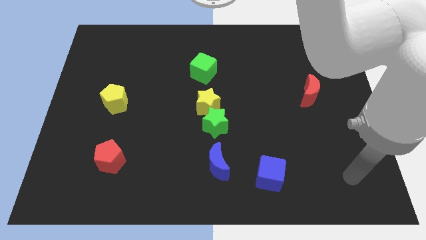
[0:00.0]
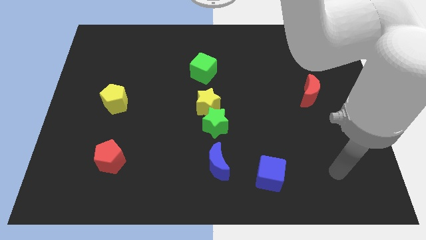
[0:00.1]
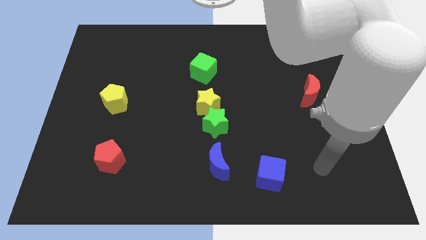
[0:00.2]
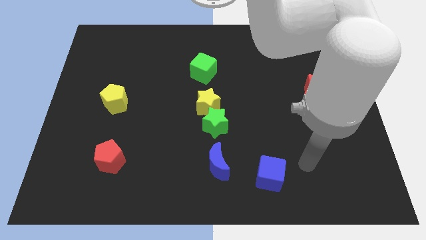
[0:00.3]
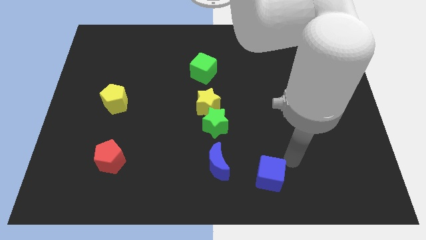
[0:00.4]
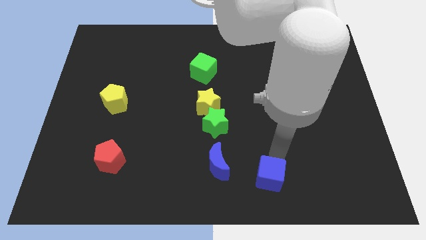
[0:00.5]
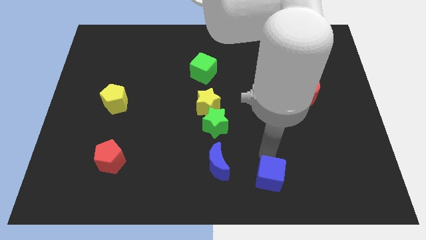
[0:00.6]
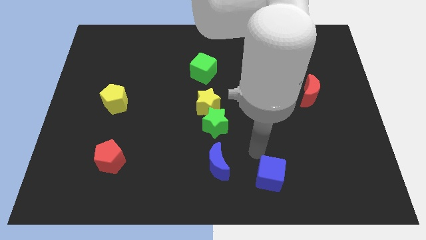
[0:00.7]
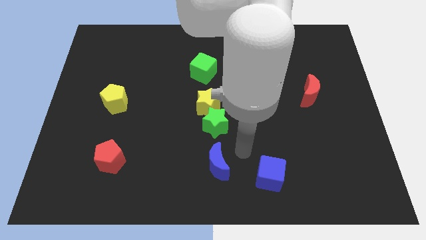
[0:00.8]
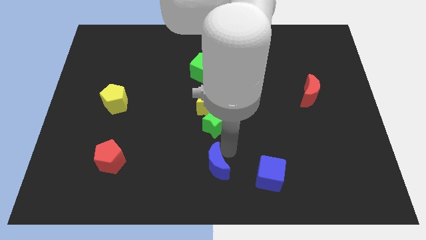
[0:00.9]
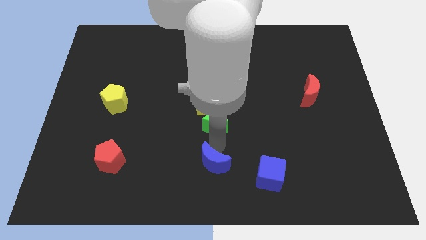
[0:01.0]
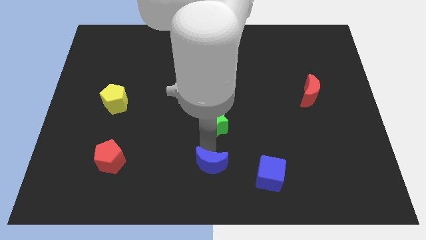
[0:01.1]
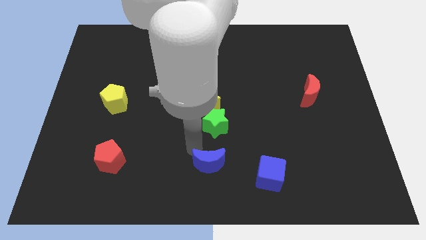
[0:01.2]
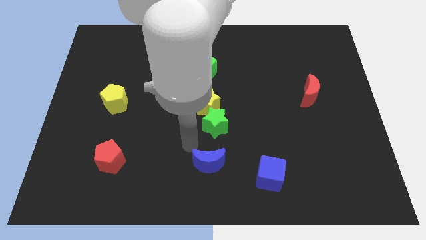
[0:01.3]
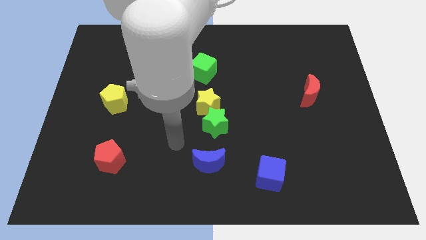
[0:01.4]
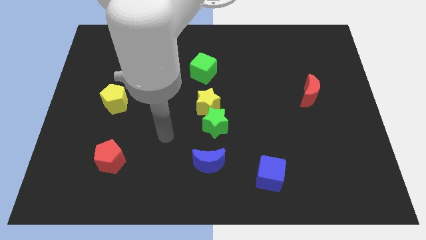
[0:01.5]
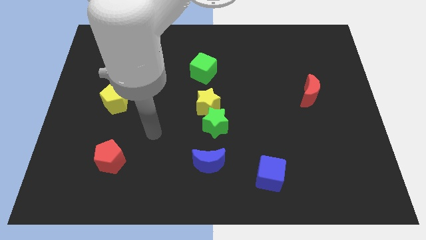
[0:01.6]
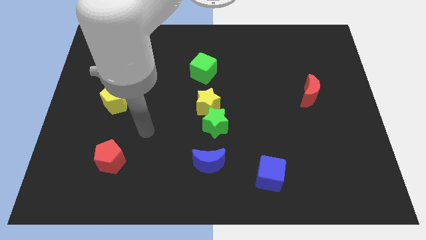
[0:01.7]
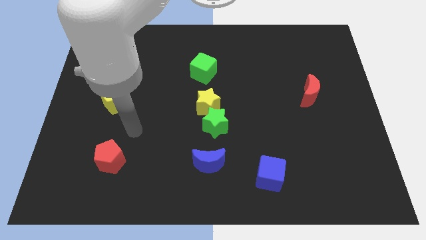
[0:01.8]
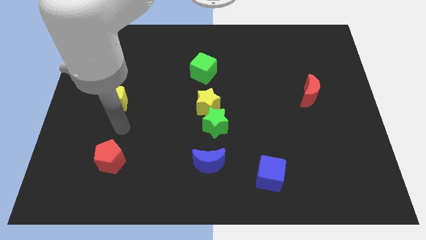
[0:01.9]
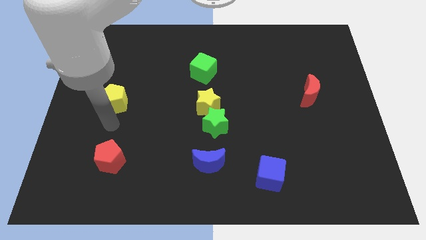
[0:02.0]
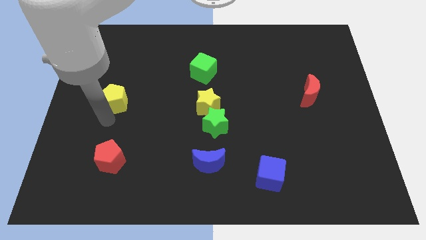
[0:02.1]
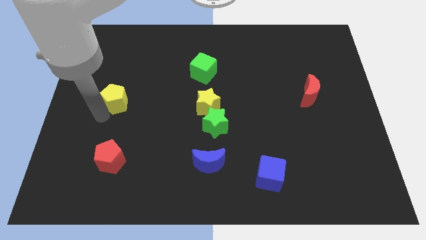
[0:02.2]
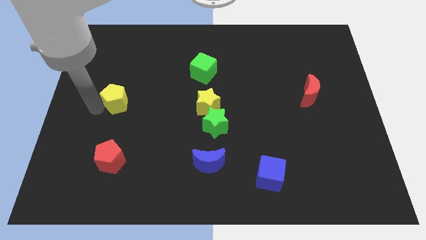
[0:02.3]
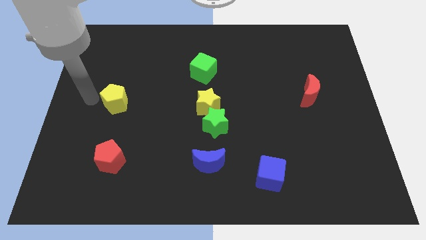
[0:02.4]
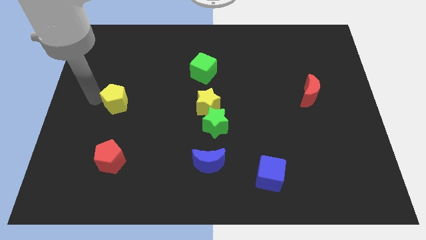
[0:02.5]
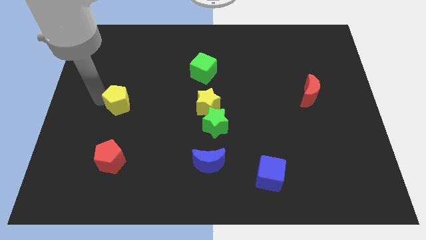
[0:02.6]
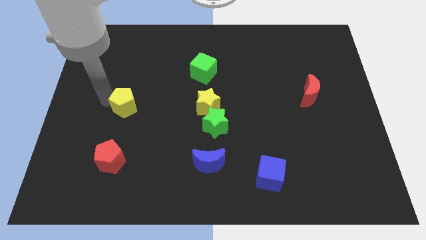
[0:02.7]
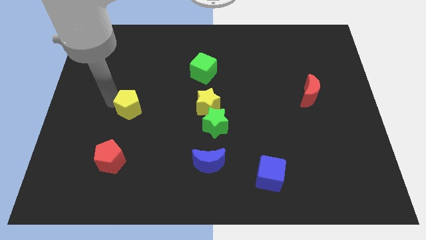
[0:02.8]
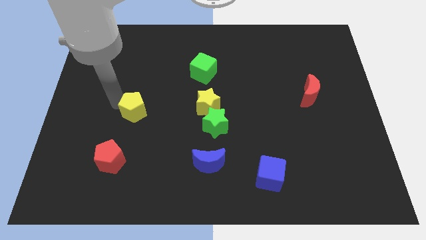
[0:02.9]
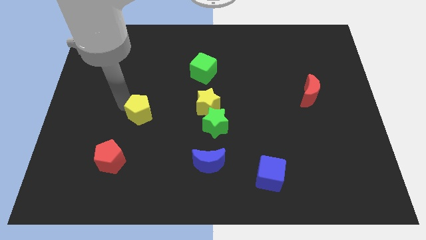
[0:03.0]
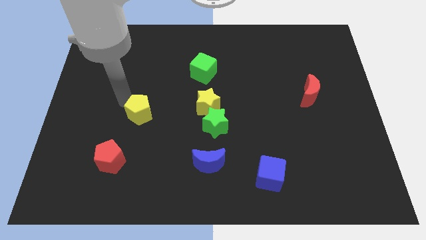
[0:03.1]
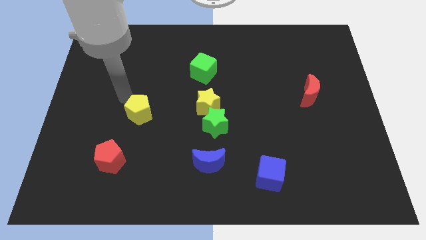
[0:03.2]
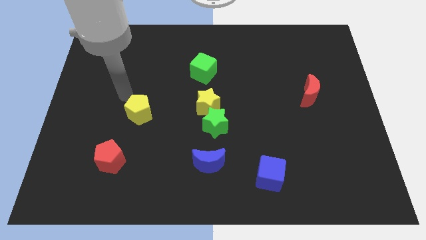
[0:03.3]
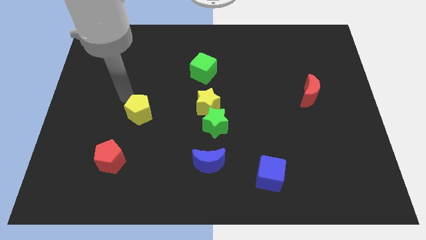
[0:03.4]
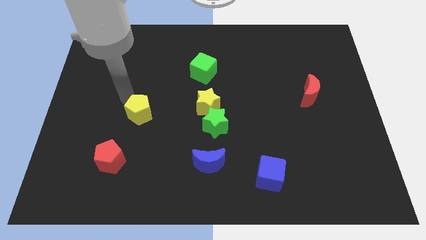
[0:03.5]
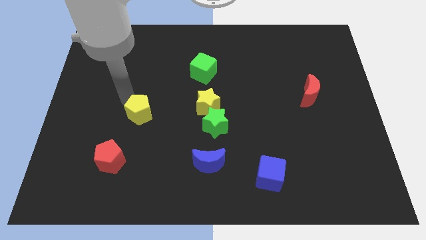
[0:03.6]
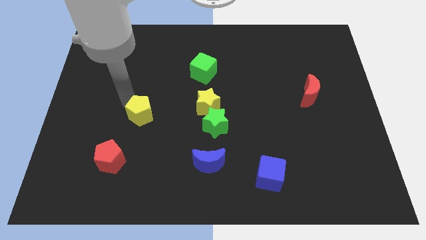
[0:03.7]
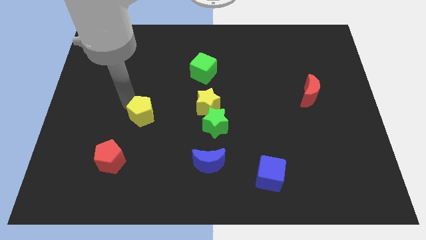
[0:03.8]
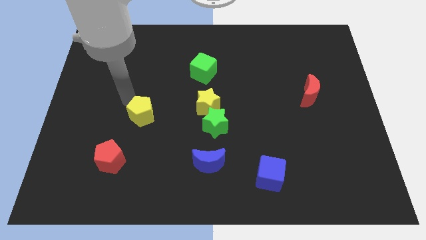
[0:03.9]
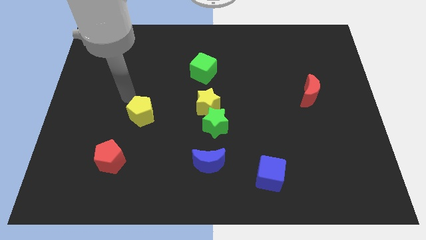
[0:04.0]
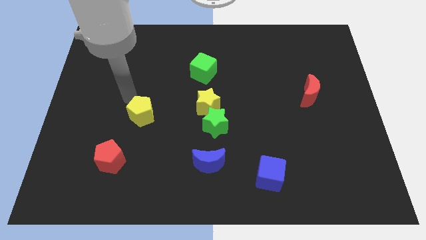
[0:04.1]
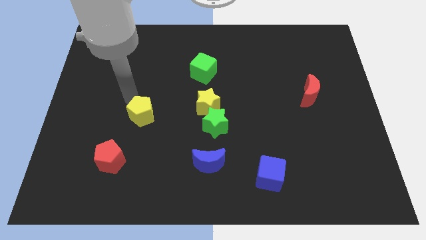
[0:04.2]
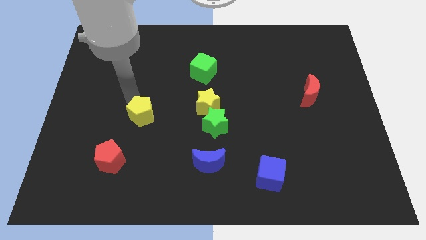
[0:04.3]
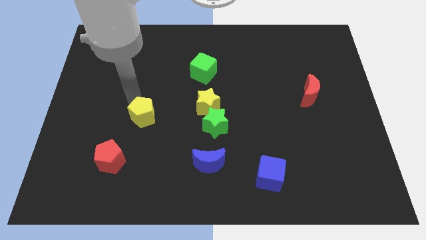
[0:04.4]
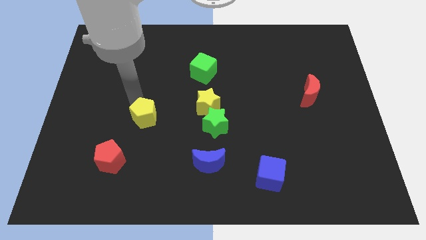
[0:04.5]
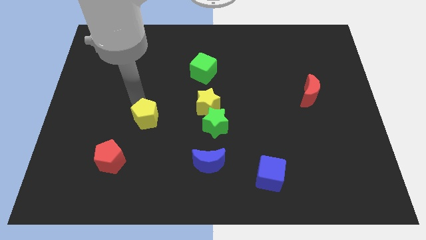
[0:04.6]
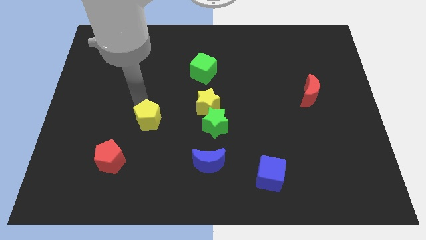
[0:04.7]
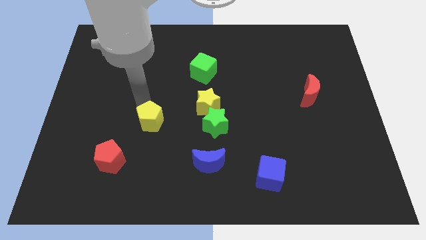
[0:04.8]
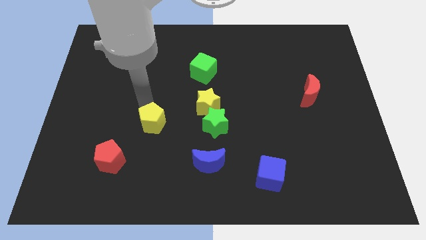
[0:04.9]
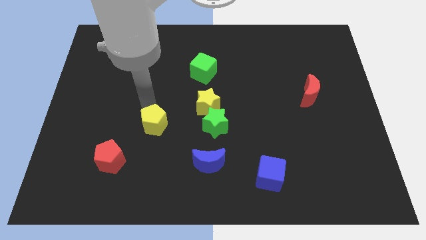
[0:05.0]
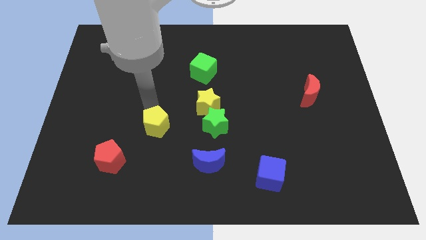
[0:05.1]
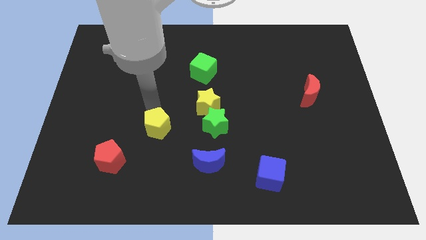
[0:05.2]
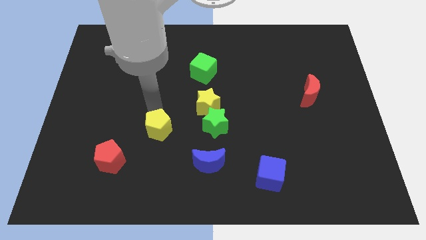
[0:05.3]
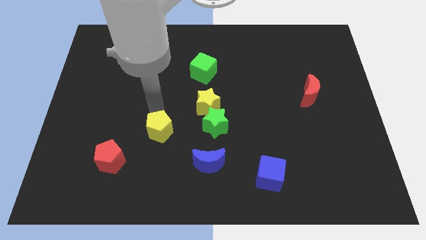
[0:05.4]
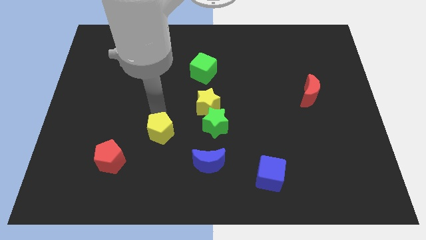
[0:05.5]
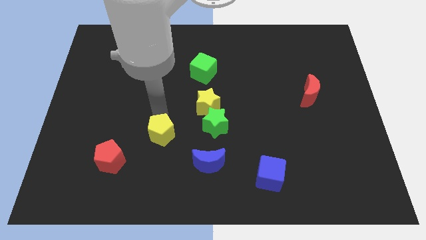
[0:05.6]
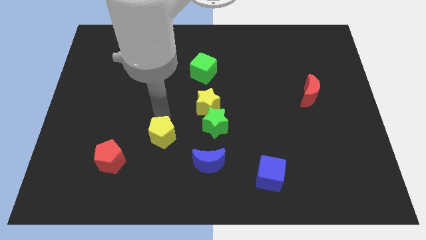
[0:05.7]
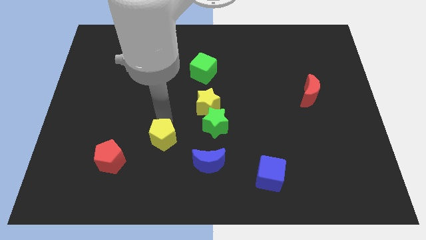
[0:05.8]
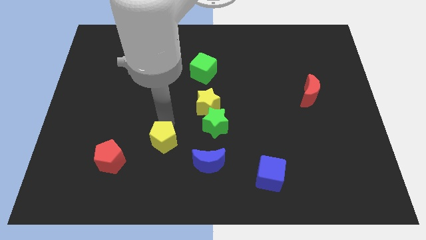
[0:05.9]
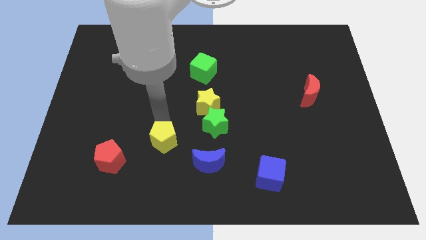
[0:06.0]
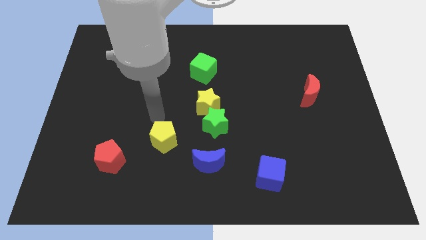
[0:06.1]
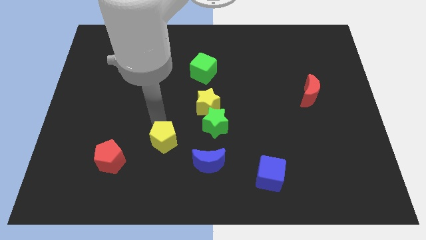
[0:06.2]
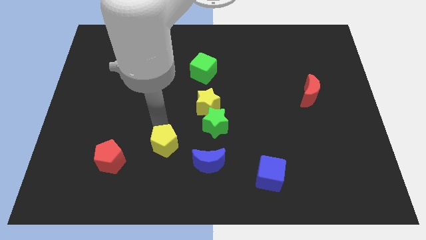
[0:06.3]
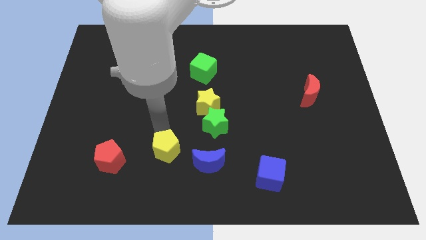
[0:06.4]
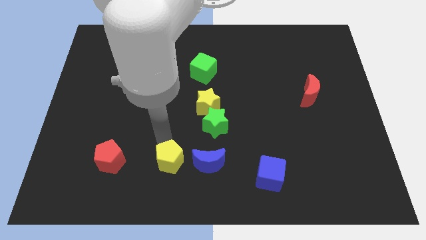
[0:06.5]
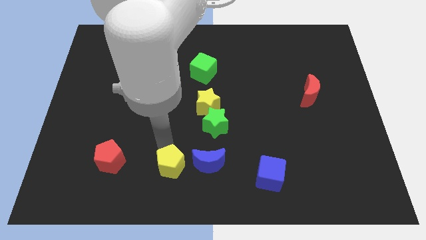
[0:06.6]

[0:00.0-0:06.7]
slide the yellow pentagon to the bottom side

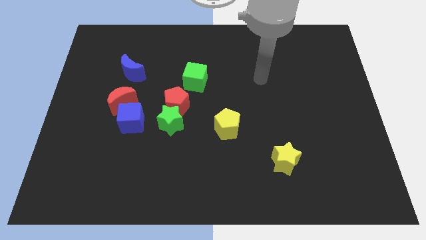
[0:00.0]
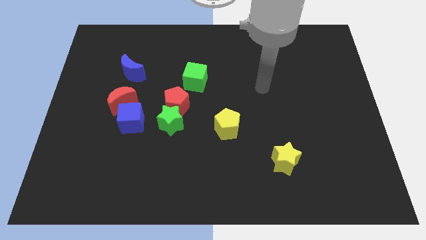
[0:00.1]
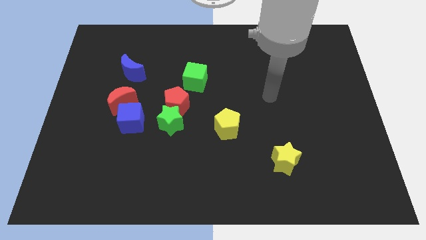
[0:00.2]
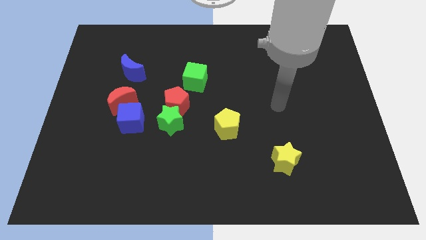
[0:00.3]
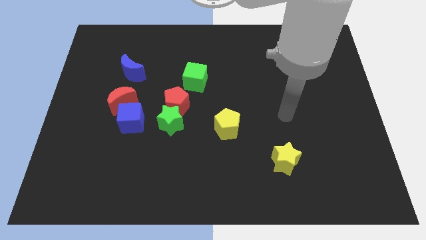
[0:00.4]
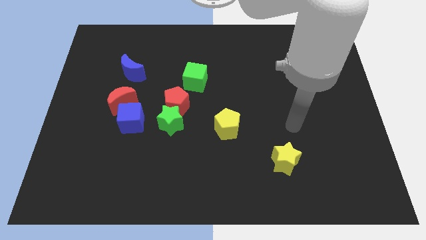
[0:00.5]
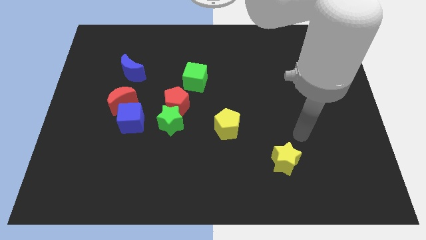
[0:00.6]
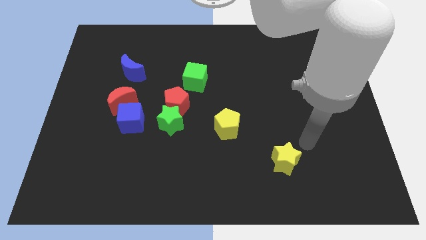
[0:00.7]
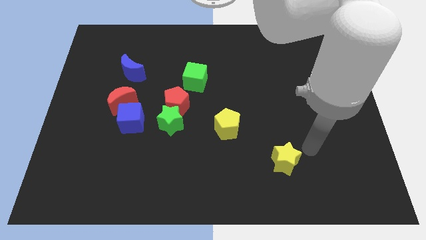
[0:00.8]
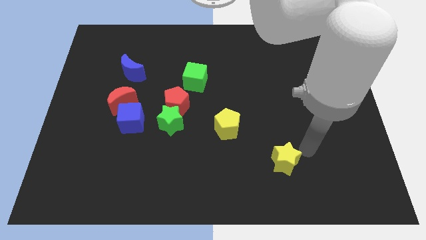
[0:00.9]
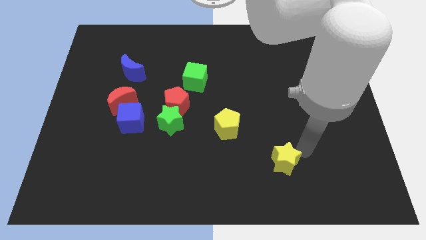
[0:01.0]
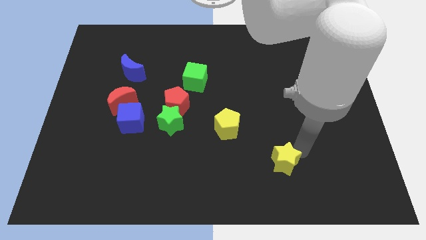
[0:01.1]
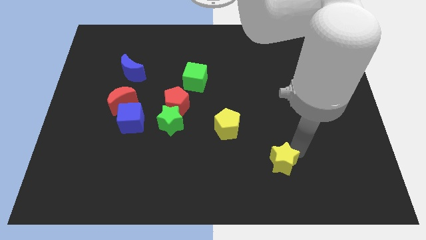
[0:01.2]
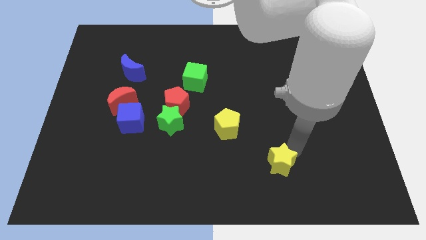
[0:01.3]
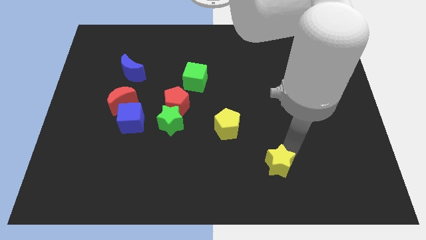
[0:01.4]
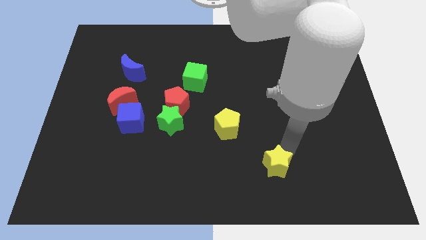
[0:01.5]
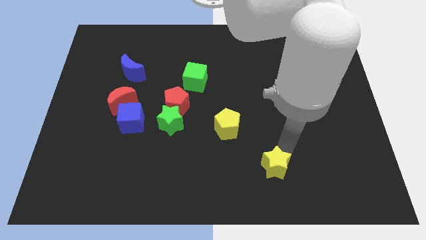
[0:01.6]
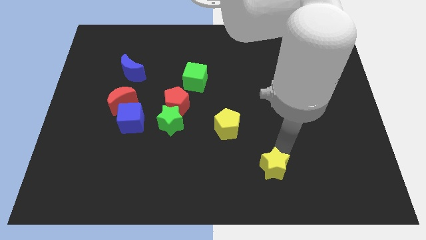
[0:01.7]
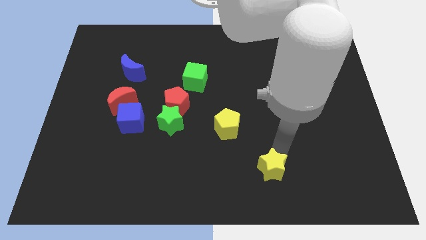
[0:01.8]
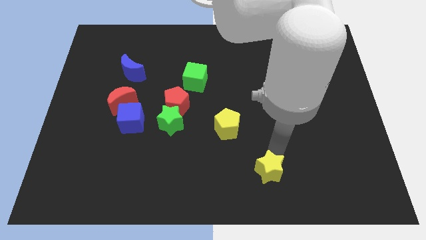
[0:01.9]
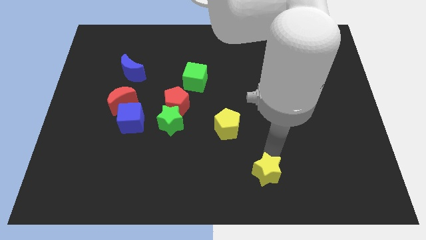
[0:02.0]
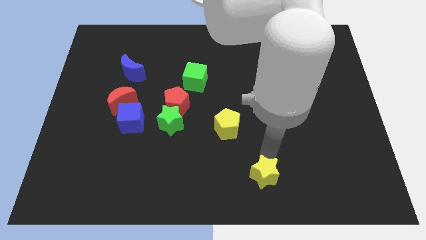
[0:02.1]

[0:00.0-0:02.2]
push the yellow star to the bottom
